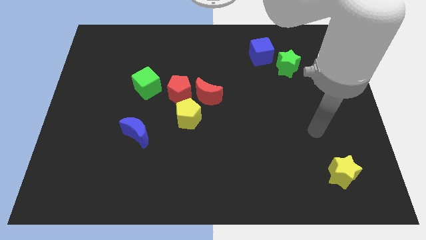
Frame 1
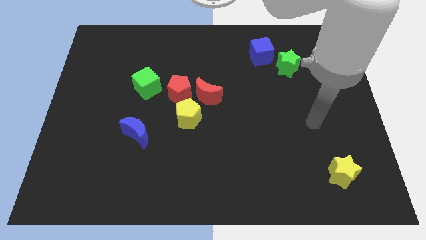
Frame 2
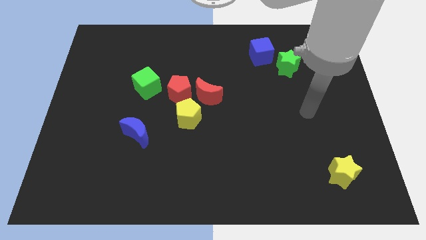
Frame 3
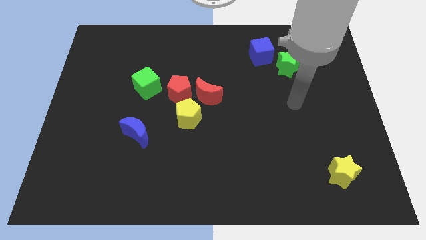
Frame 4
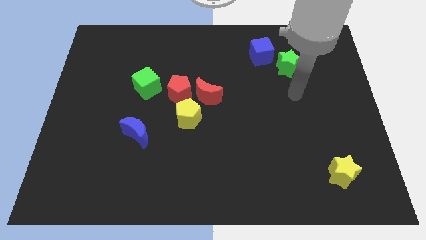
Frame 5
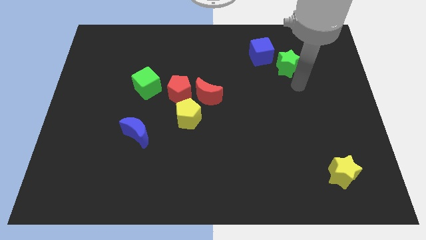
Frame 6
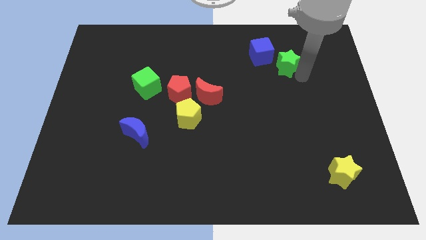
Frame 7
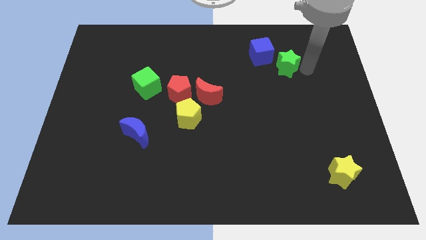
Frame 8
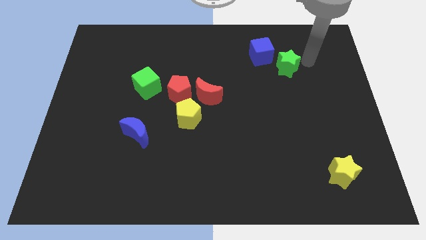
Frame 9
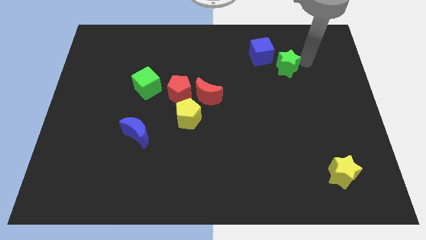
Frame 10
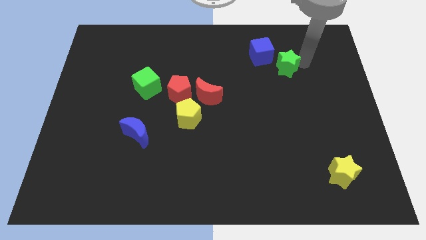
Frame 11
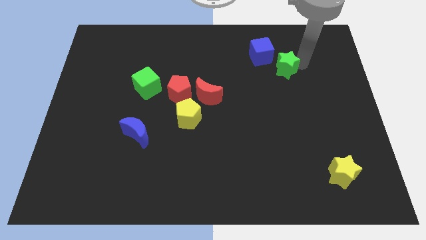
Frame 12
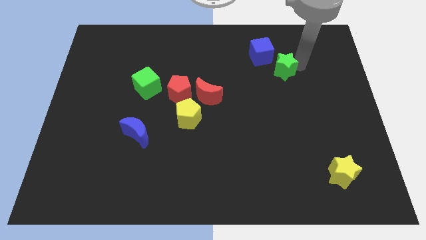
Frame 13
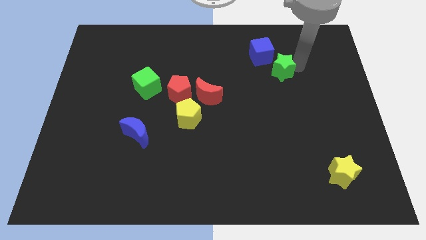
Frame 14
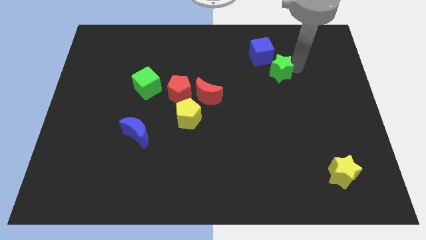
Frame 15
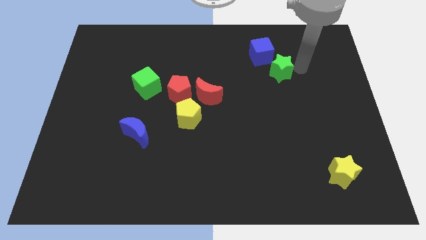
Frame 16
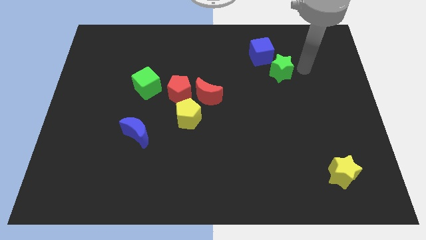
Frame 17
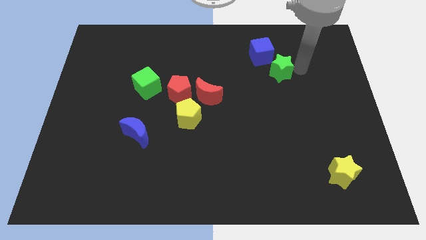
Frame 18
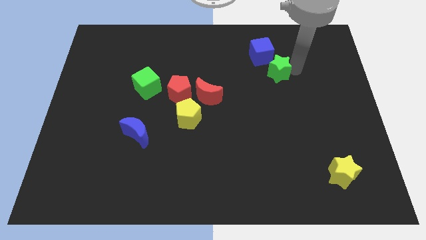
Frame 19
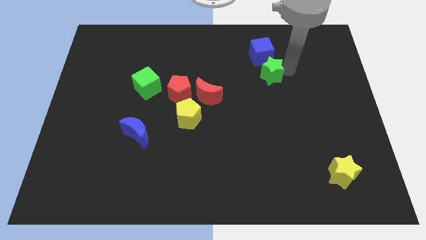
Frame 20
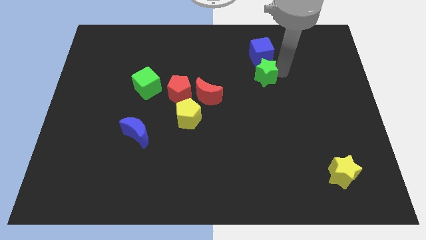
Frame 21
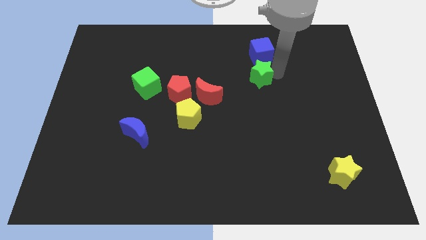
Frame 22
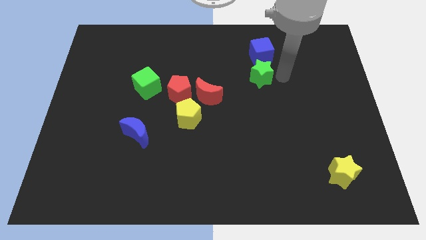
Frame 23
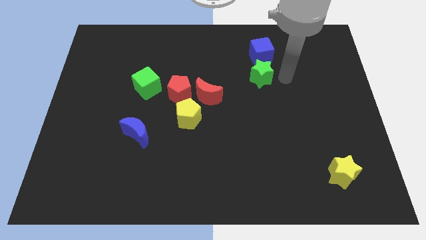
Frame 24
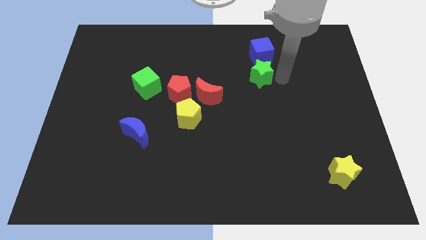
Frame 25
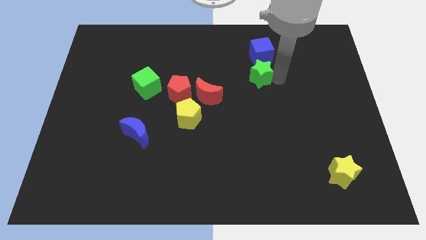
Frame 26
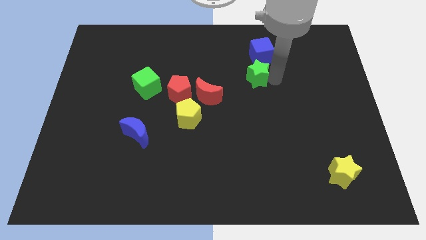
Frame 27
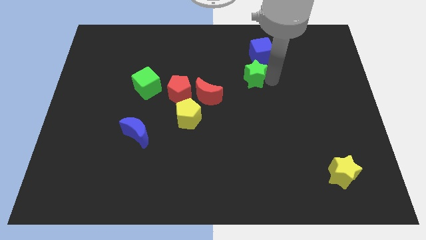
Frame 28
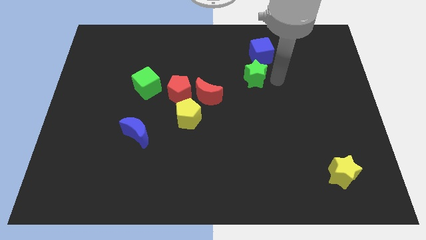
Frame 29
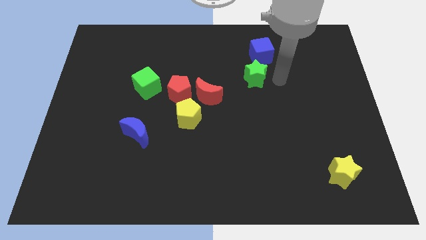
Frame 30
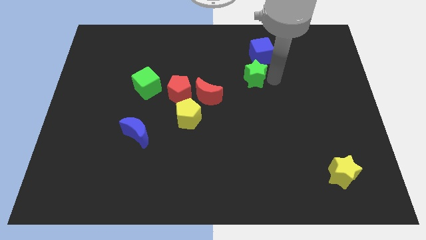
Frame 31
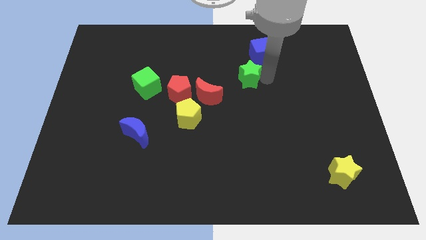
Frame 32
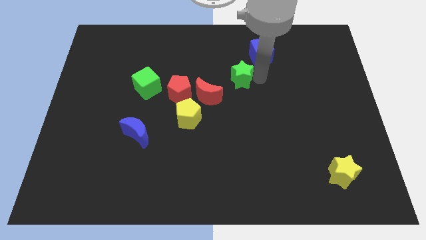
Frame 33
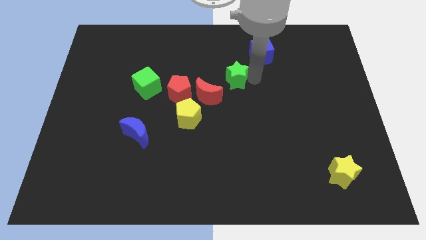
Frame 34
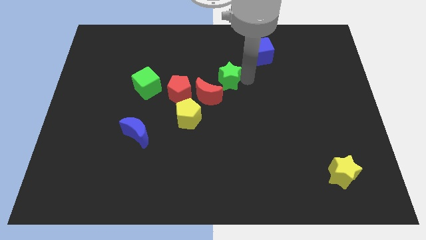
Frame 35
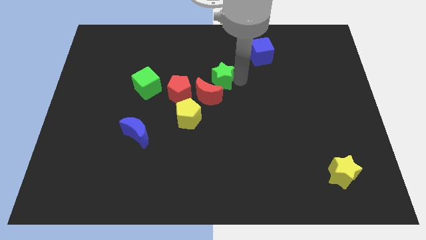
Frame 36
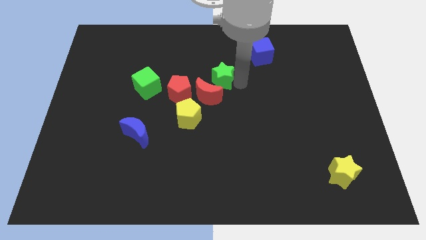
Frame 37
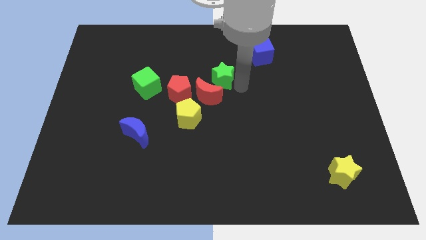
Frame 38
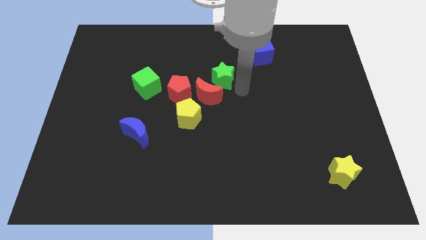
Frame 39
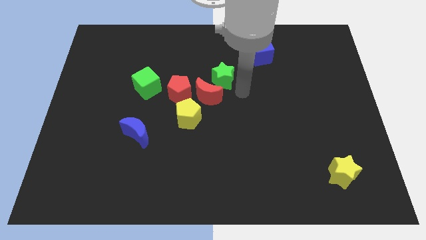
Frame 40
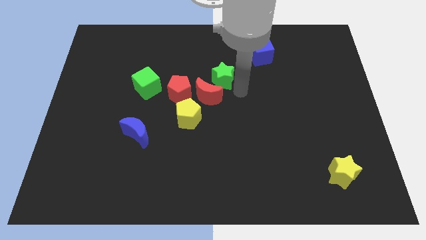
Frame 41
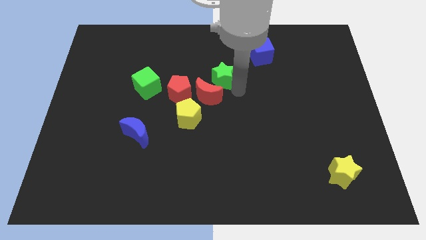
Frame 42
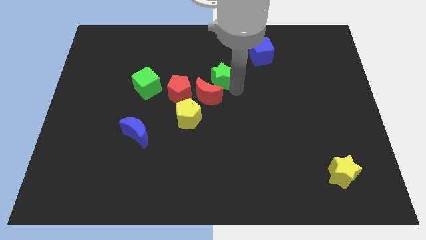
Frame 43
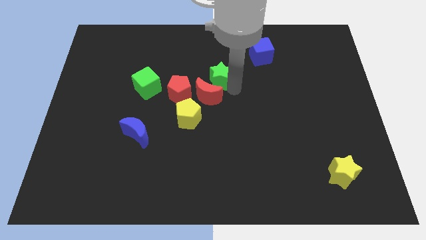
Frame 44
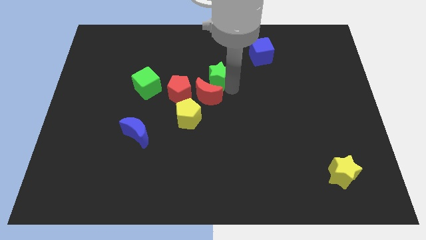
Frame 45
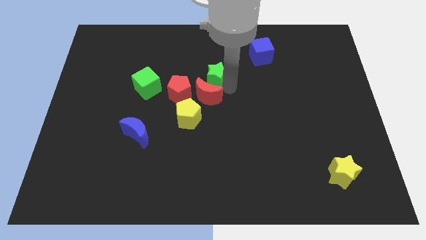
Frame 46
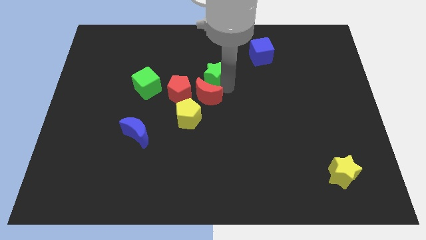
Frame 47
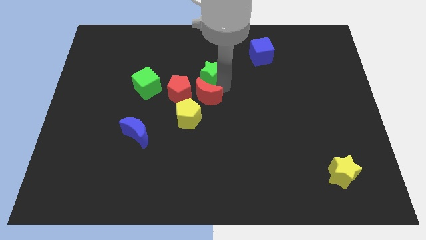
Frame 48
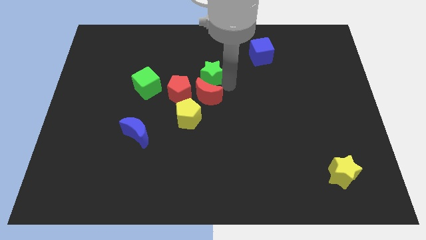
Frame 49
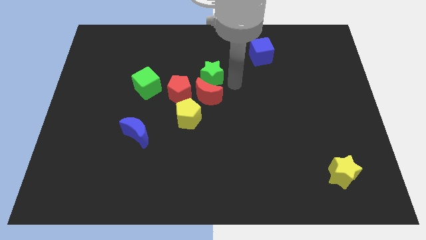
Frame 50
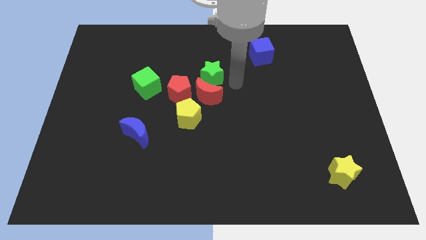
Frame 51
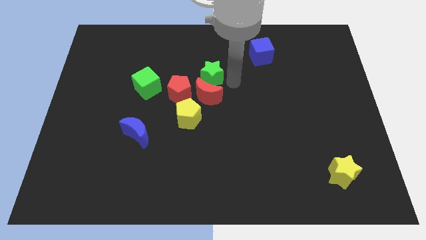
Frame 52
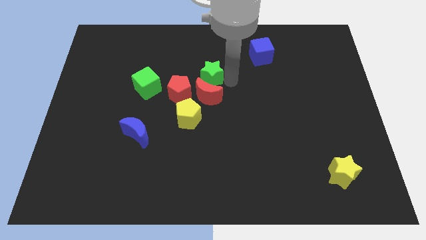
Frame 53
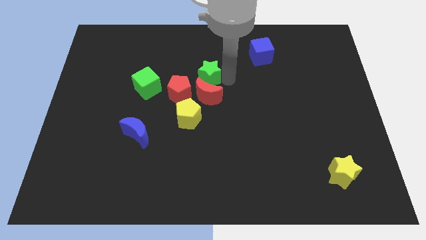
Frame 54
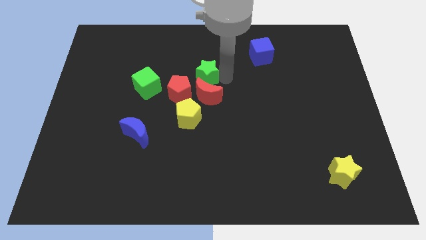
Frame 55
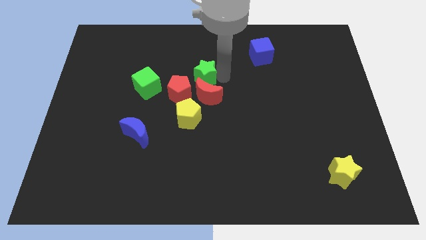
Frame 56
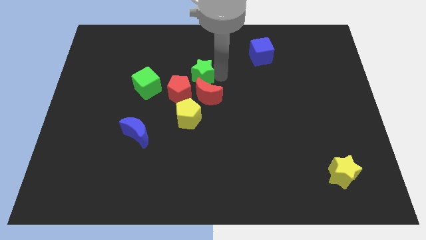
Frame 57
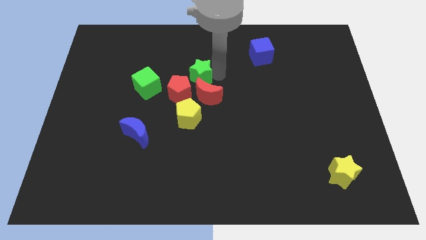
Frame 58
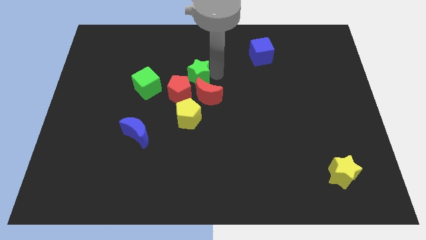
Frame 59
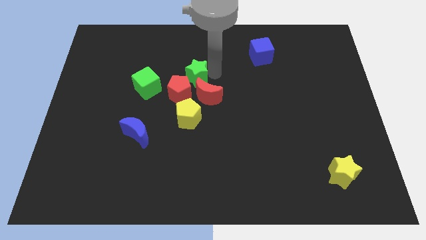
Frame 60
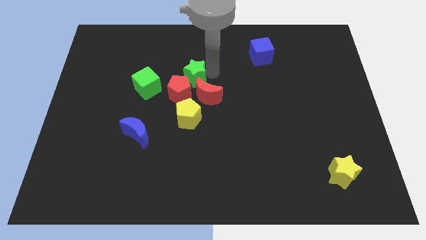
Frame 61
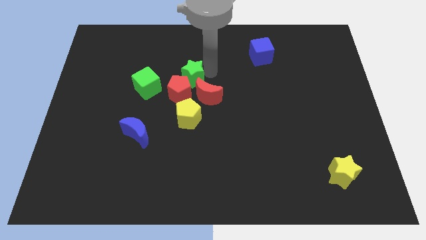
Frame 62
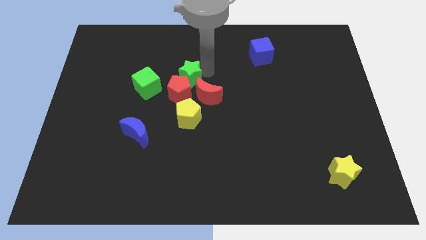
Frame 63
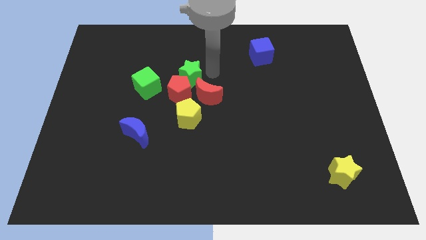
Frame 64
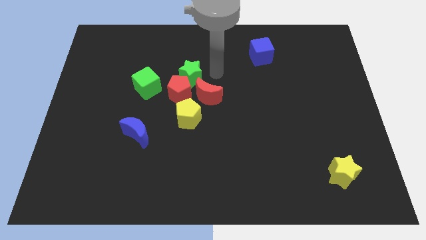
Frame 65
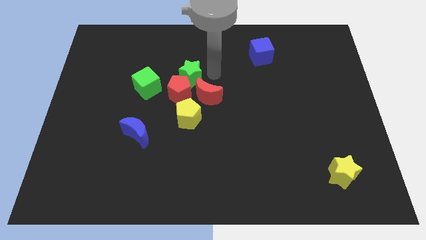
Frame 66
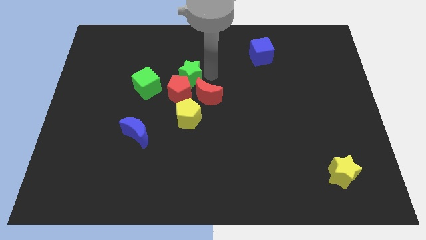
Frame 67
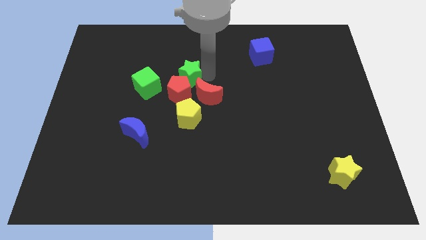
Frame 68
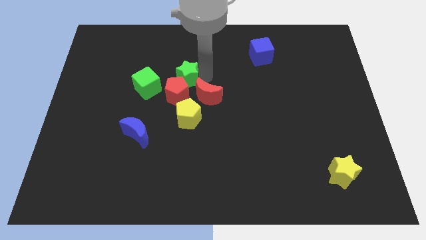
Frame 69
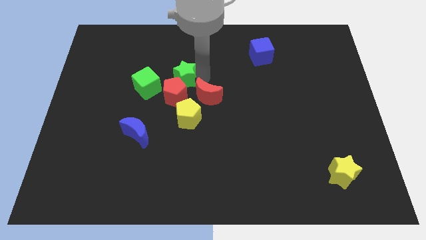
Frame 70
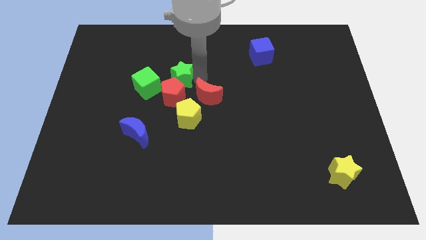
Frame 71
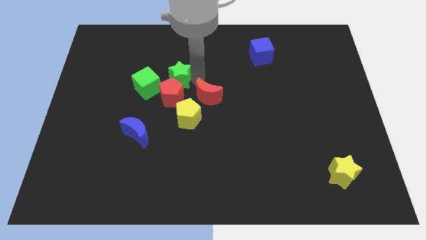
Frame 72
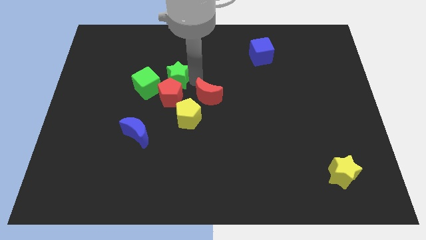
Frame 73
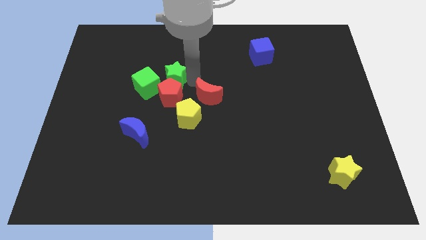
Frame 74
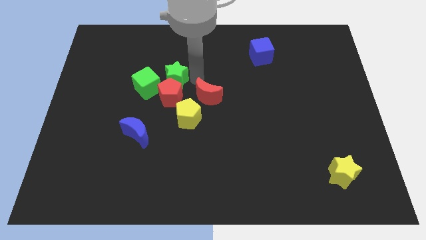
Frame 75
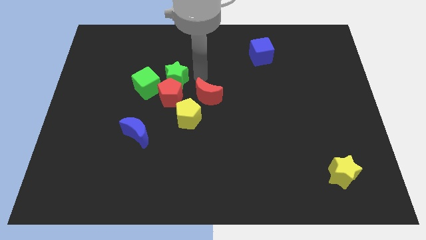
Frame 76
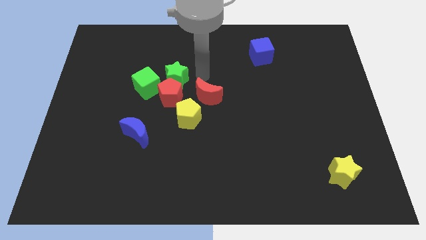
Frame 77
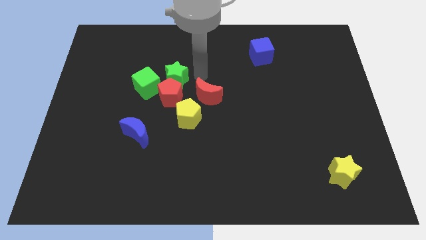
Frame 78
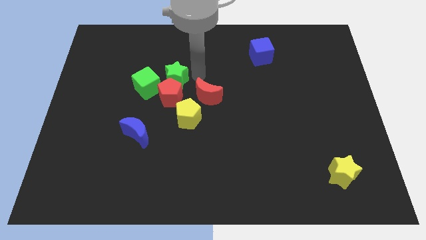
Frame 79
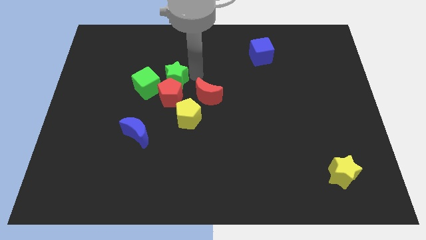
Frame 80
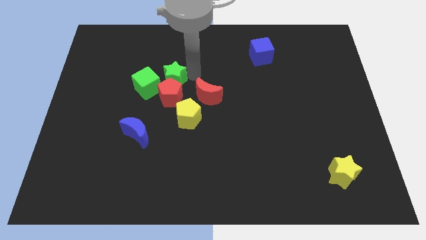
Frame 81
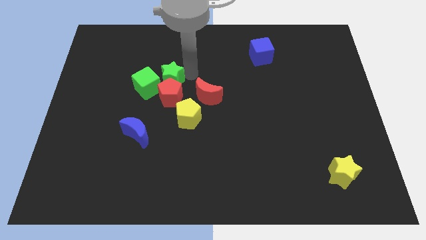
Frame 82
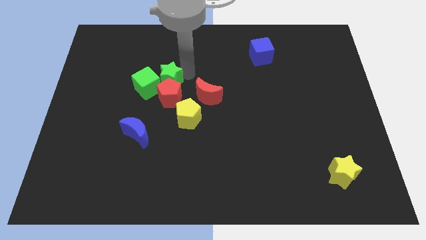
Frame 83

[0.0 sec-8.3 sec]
put the green star towards the green cube
